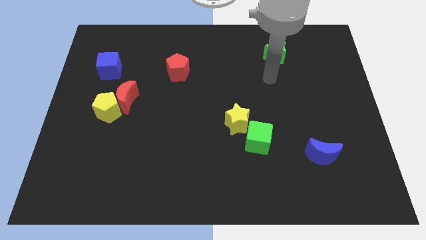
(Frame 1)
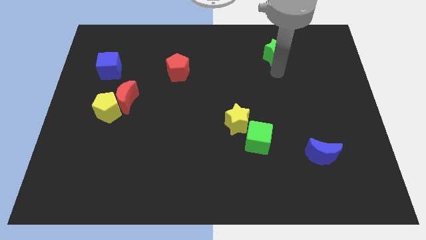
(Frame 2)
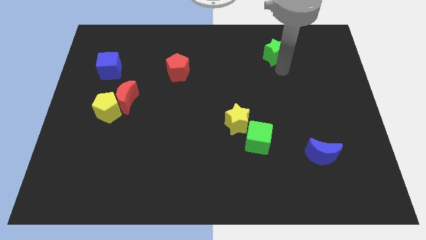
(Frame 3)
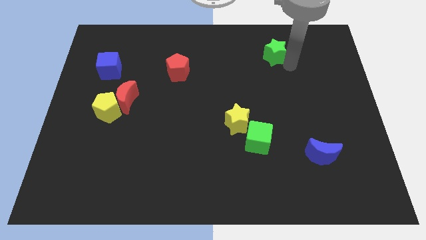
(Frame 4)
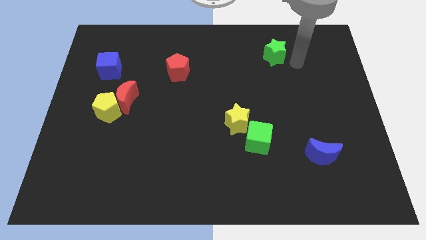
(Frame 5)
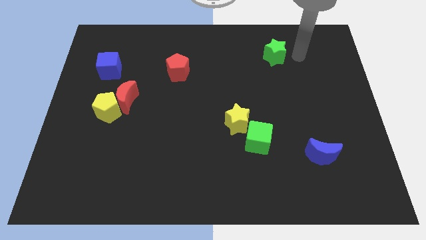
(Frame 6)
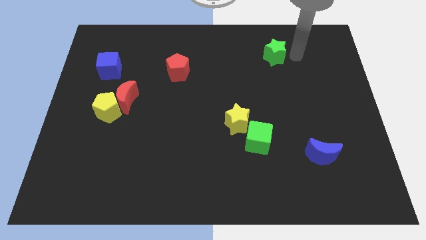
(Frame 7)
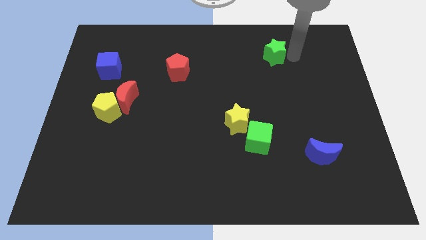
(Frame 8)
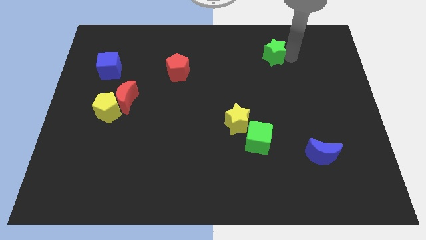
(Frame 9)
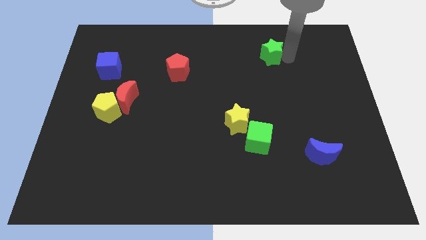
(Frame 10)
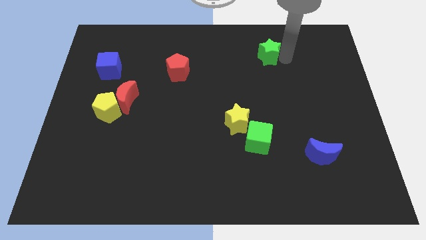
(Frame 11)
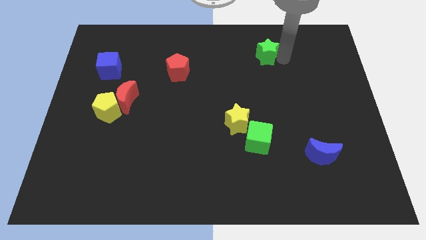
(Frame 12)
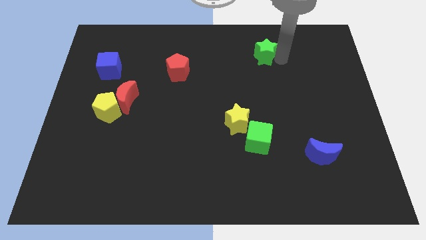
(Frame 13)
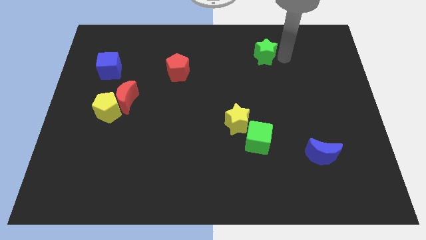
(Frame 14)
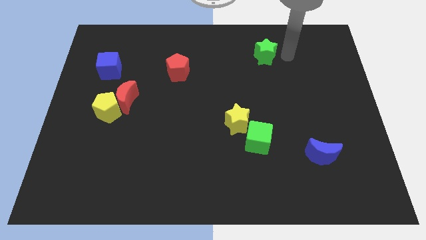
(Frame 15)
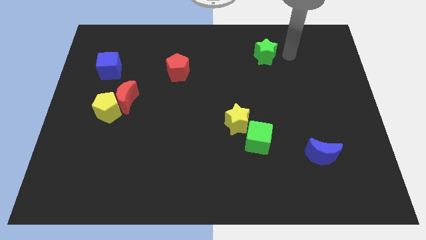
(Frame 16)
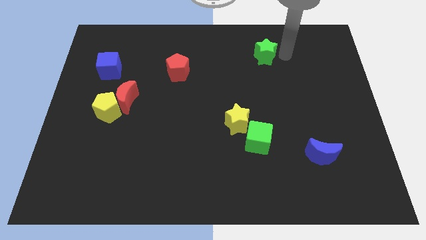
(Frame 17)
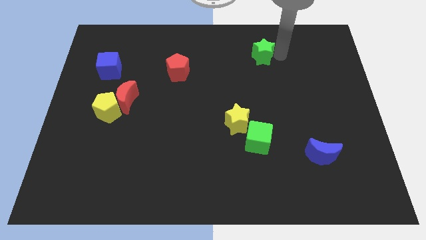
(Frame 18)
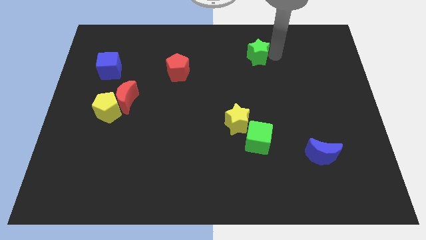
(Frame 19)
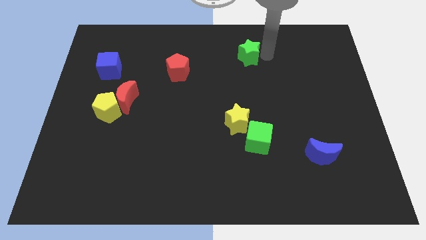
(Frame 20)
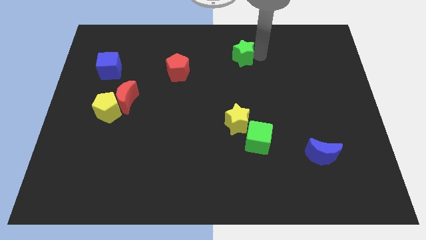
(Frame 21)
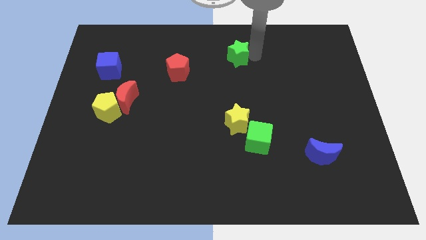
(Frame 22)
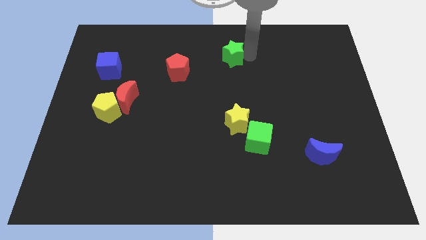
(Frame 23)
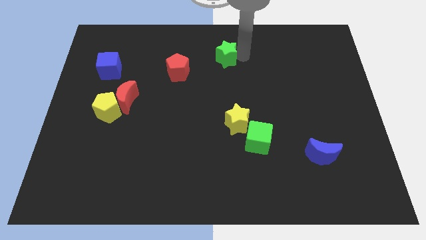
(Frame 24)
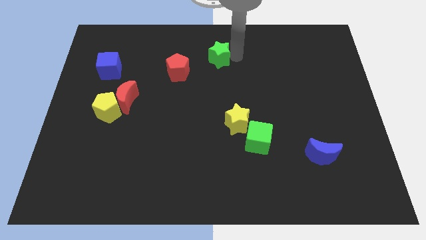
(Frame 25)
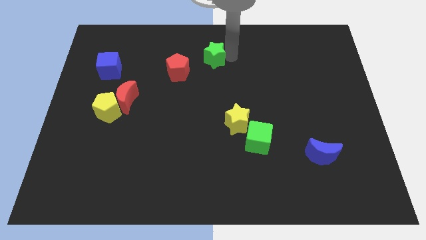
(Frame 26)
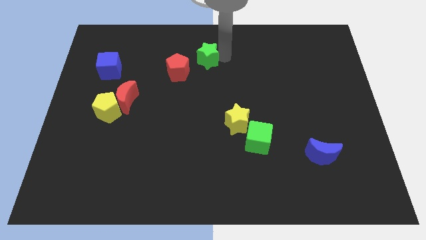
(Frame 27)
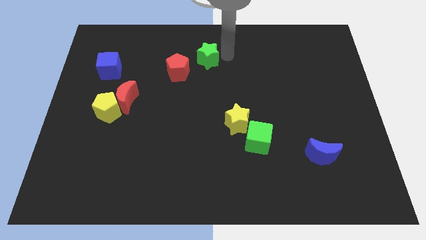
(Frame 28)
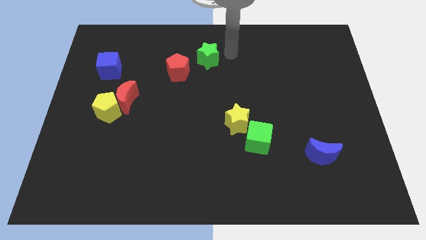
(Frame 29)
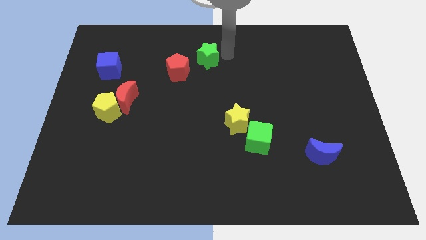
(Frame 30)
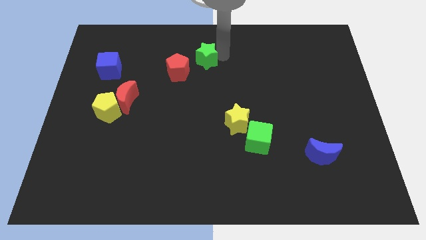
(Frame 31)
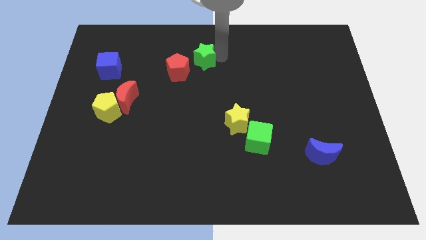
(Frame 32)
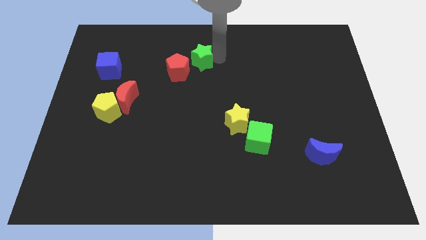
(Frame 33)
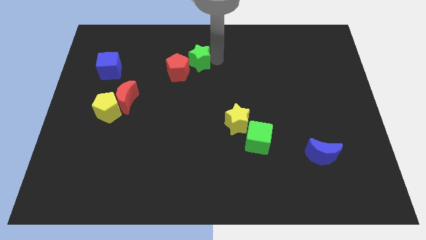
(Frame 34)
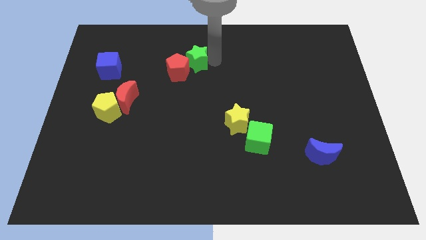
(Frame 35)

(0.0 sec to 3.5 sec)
move the green star left

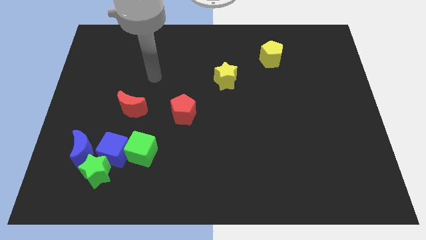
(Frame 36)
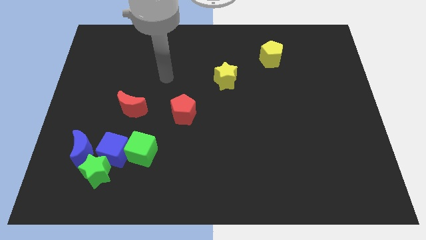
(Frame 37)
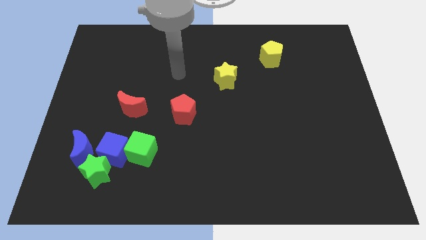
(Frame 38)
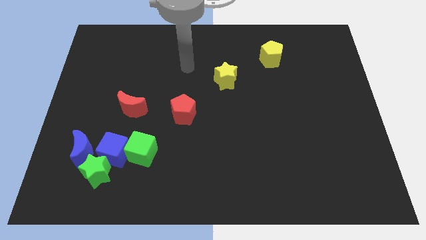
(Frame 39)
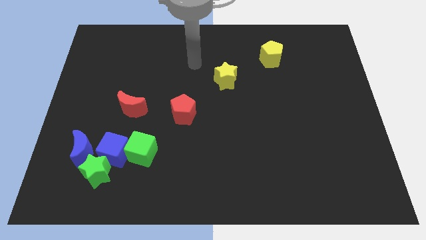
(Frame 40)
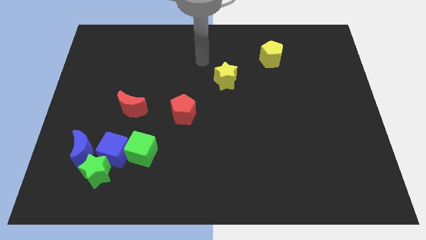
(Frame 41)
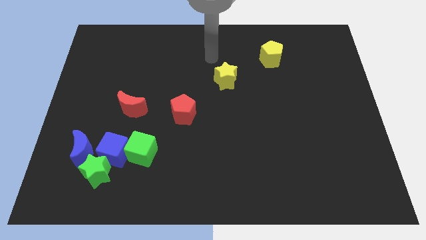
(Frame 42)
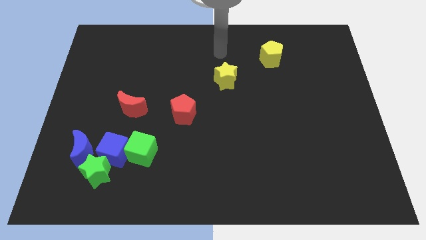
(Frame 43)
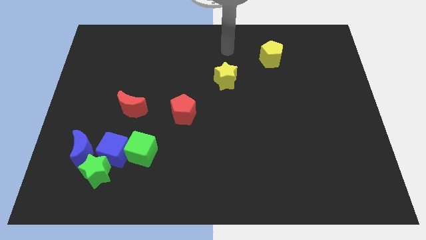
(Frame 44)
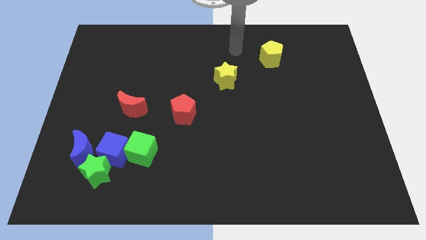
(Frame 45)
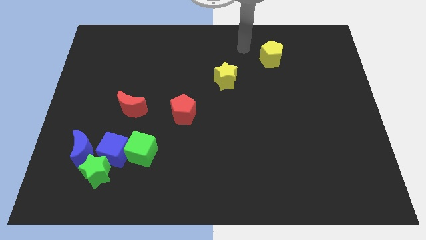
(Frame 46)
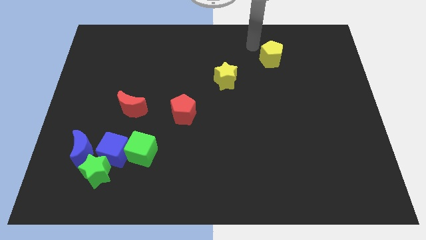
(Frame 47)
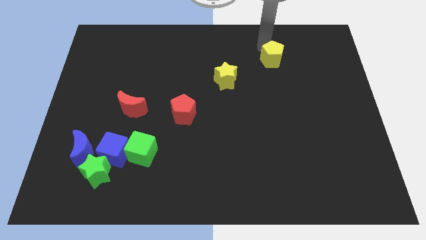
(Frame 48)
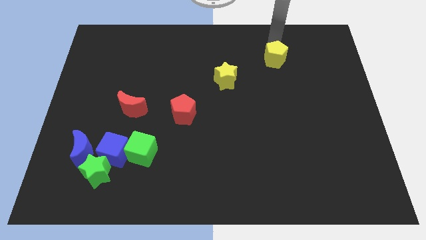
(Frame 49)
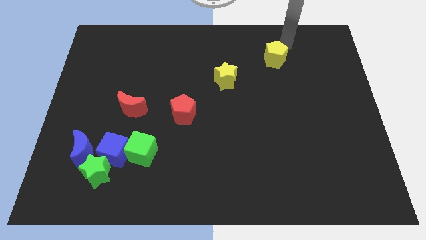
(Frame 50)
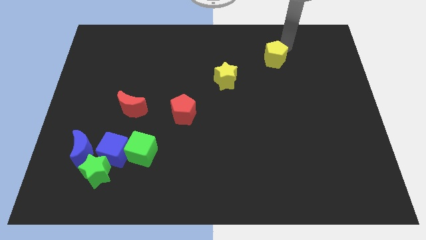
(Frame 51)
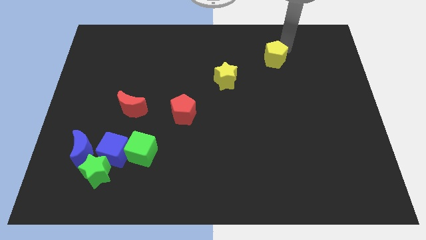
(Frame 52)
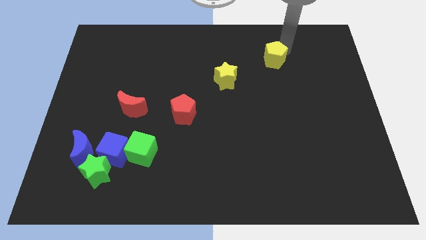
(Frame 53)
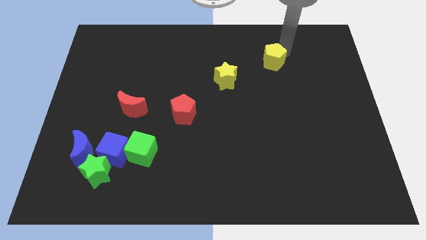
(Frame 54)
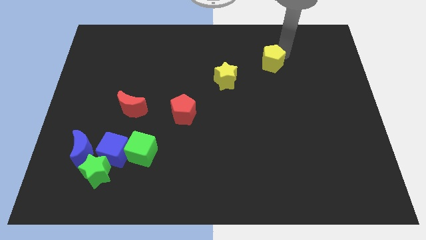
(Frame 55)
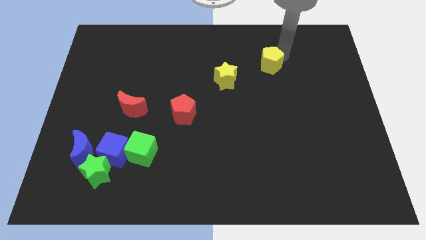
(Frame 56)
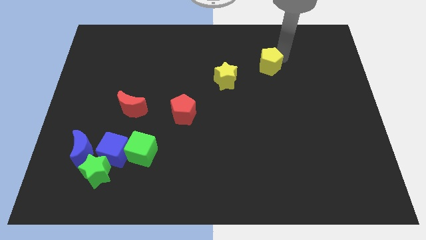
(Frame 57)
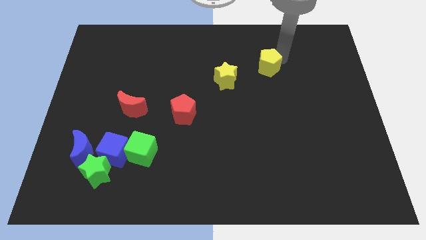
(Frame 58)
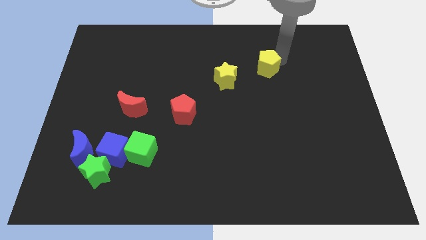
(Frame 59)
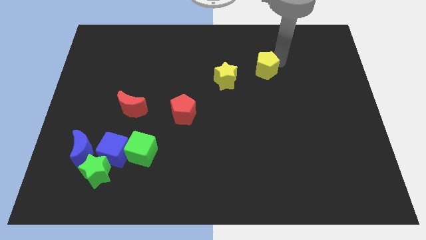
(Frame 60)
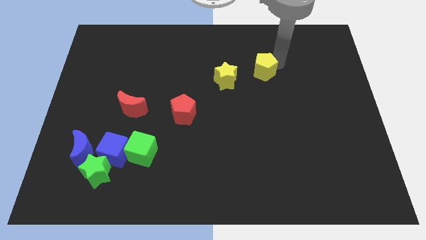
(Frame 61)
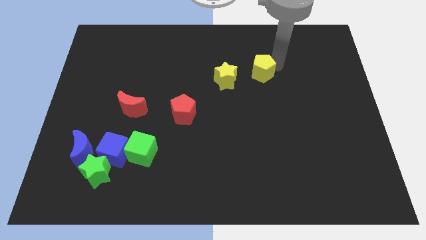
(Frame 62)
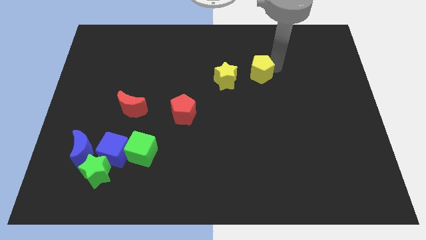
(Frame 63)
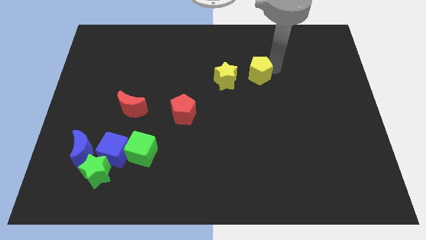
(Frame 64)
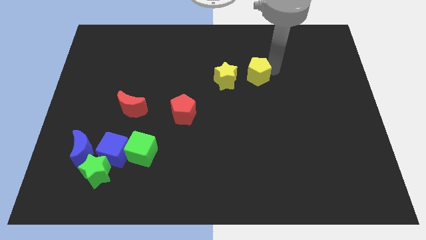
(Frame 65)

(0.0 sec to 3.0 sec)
slightly push the yellow pentagon down and left diagonally

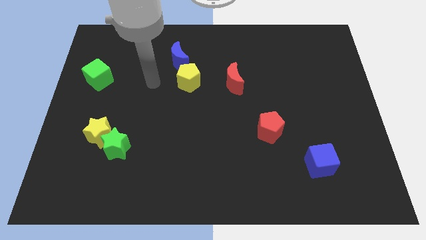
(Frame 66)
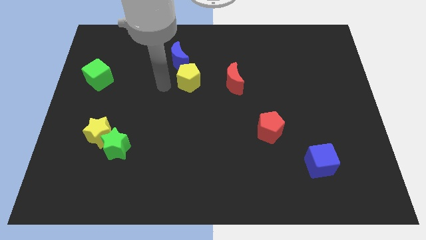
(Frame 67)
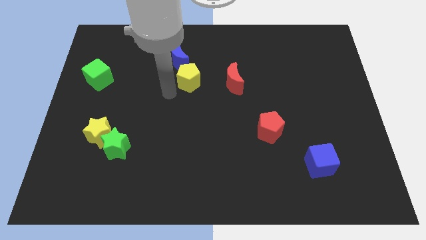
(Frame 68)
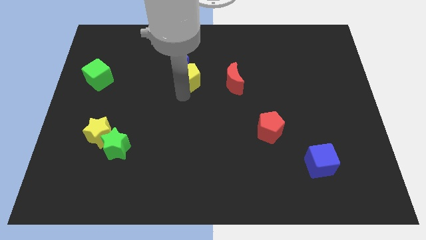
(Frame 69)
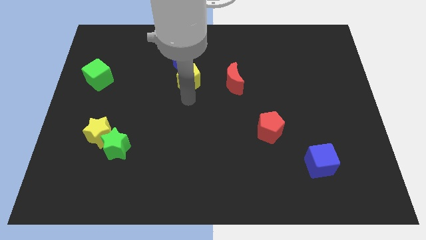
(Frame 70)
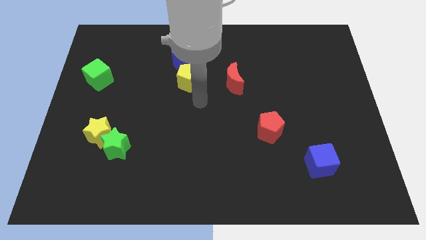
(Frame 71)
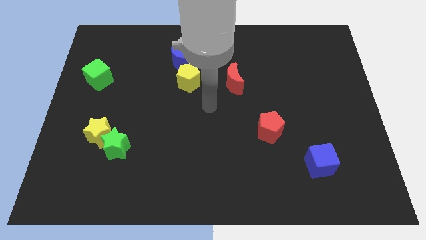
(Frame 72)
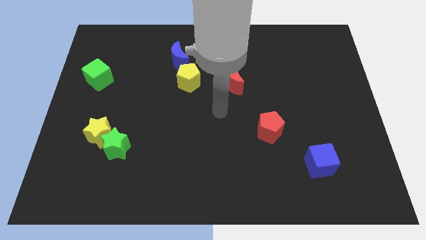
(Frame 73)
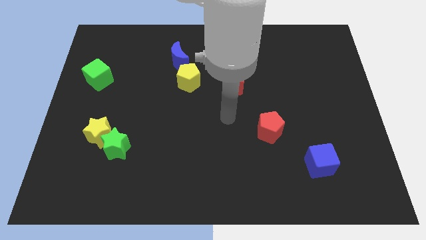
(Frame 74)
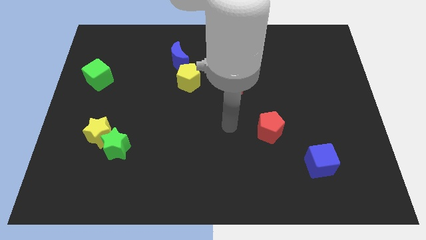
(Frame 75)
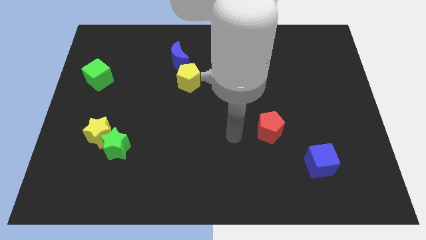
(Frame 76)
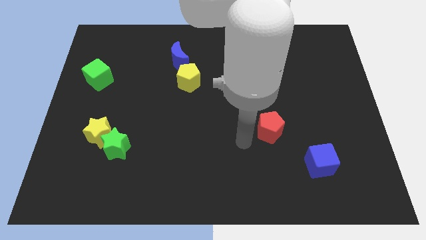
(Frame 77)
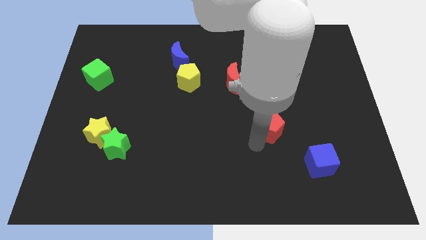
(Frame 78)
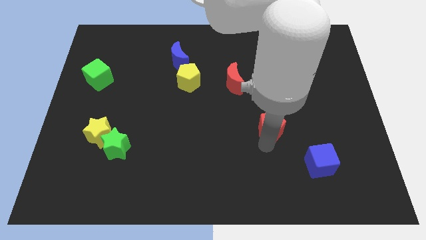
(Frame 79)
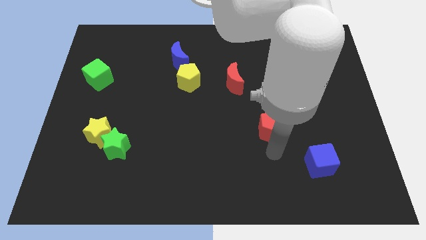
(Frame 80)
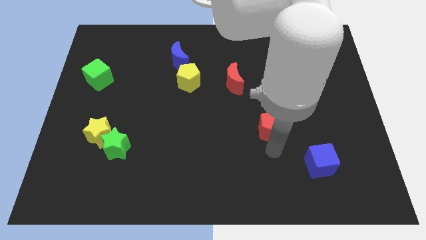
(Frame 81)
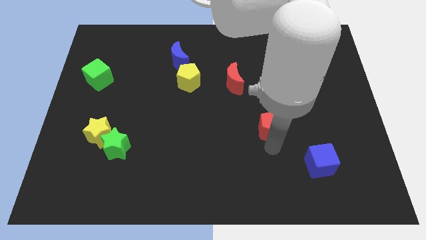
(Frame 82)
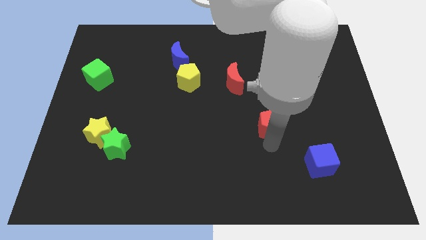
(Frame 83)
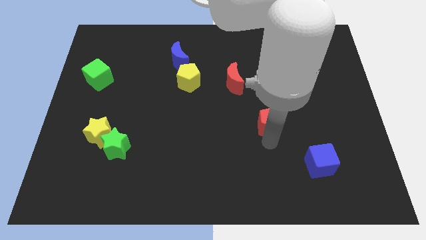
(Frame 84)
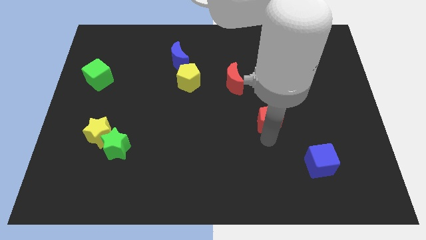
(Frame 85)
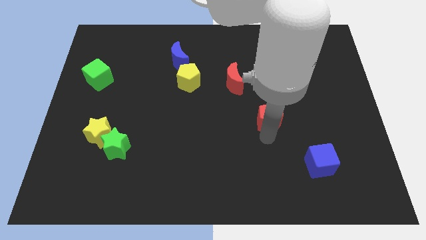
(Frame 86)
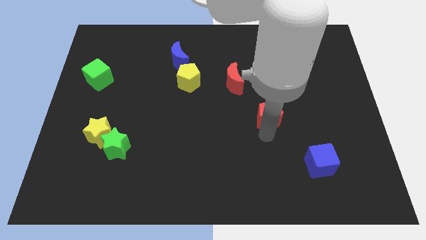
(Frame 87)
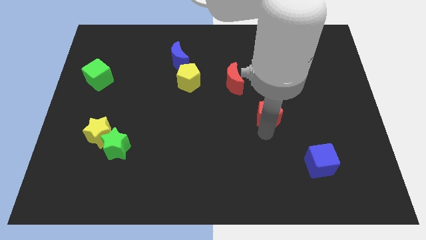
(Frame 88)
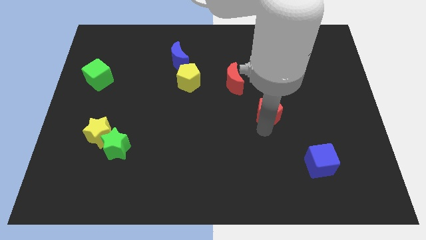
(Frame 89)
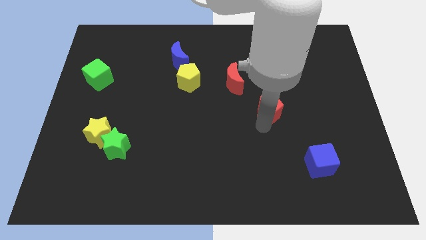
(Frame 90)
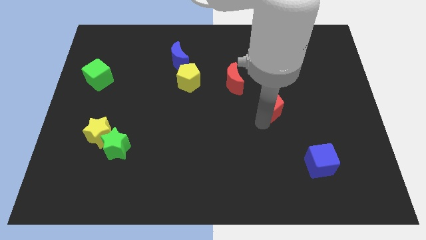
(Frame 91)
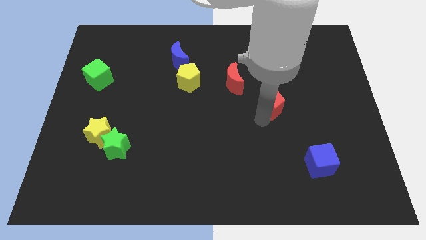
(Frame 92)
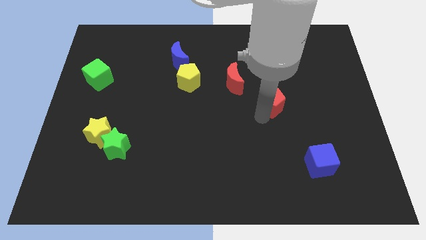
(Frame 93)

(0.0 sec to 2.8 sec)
slightly push the red pentagon up
